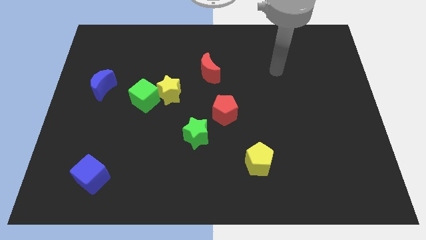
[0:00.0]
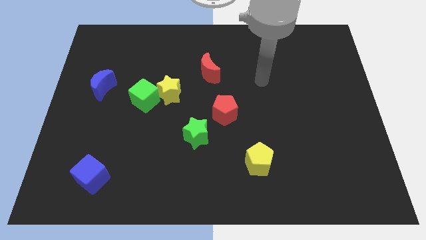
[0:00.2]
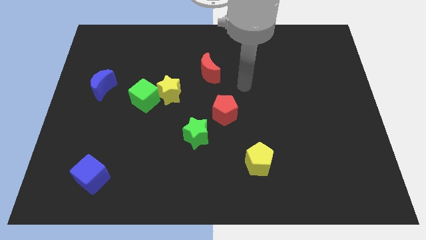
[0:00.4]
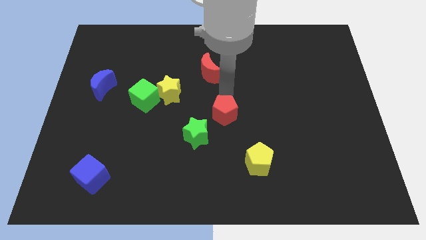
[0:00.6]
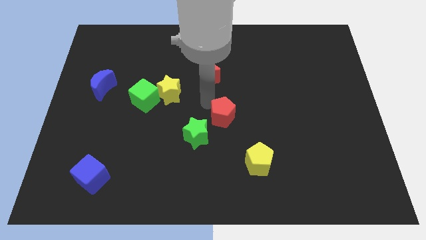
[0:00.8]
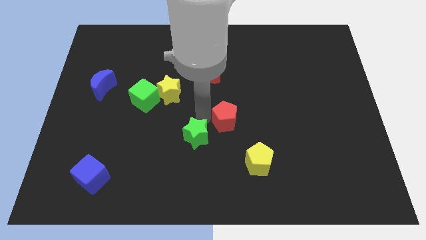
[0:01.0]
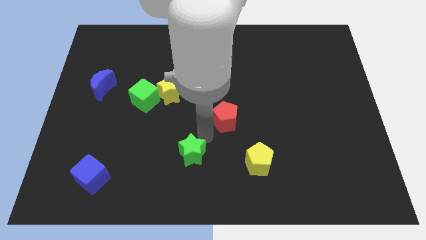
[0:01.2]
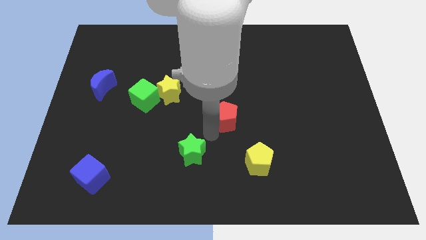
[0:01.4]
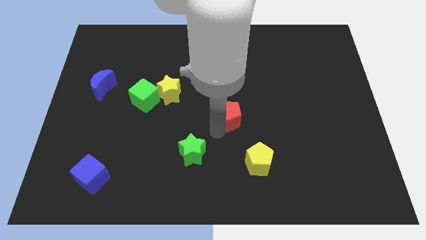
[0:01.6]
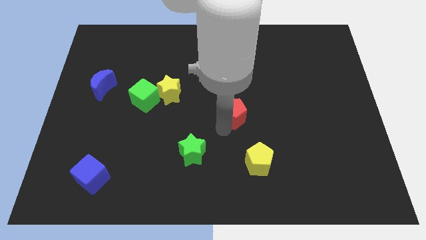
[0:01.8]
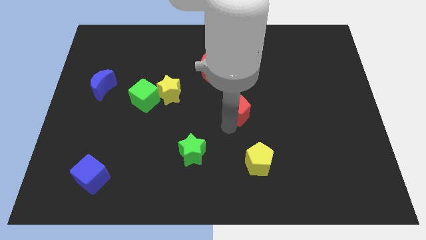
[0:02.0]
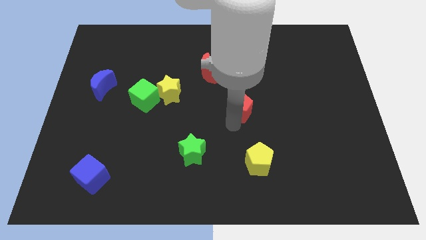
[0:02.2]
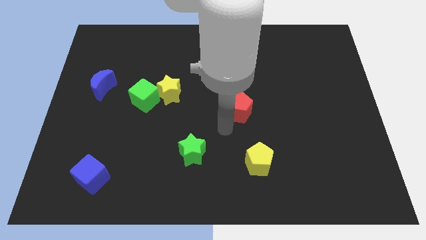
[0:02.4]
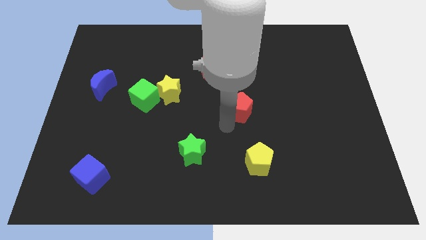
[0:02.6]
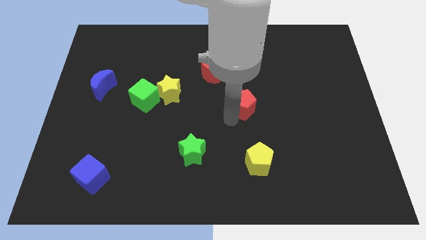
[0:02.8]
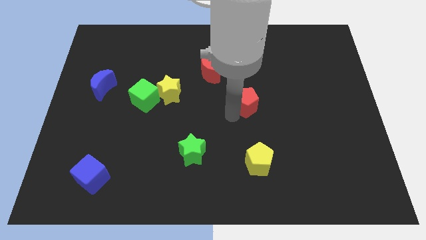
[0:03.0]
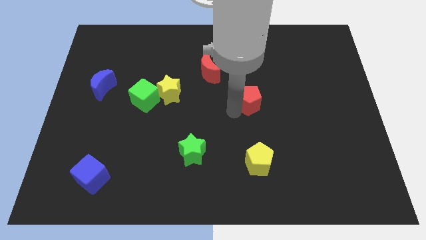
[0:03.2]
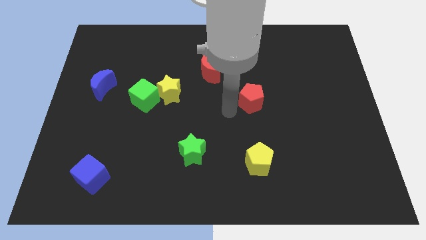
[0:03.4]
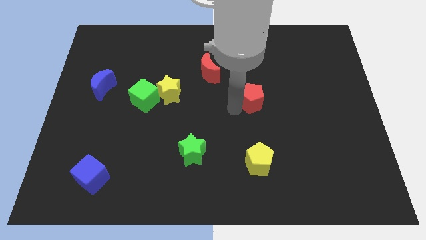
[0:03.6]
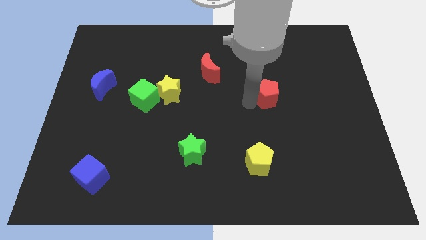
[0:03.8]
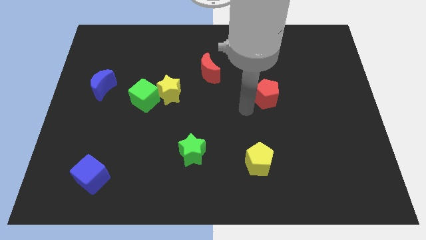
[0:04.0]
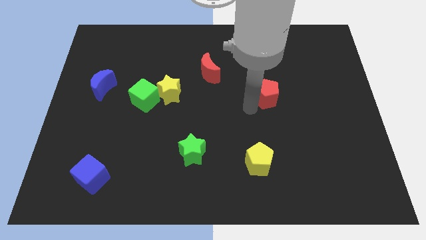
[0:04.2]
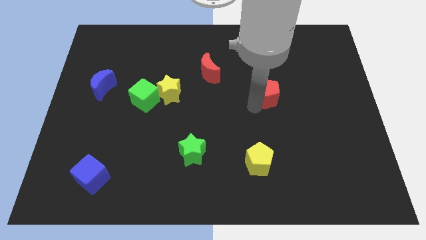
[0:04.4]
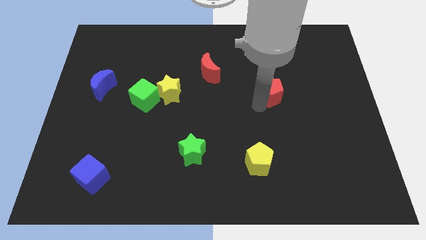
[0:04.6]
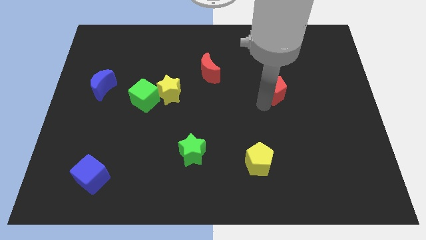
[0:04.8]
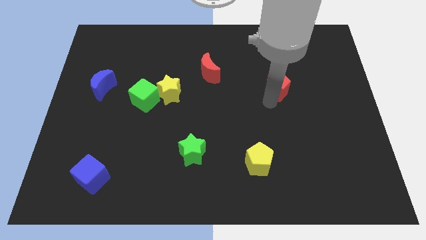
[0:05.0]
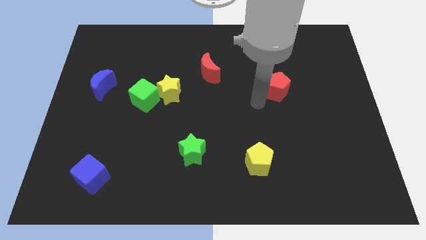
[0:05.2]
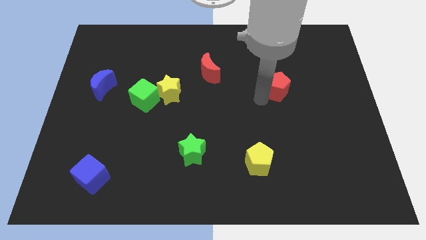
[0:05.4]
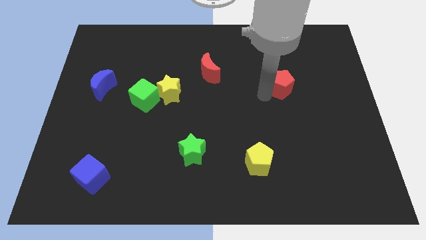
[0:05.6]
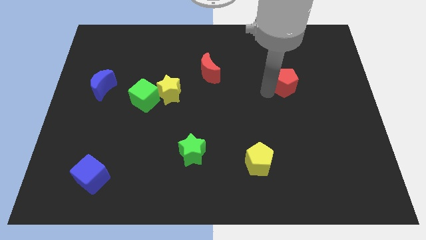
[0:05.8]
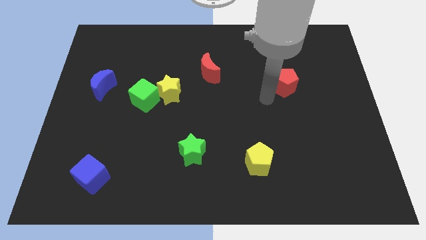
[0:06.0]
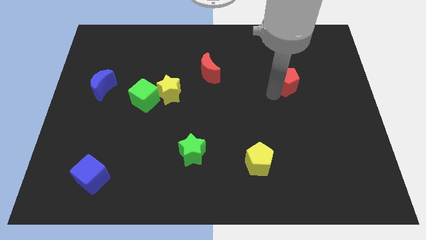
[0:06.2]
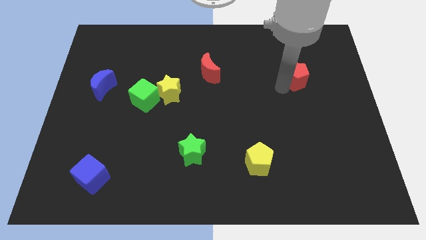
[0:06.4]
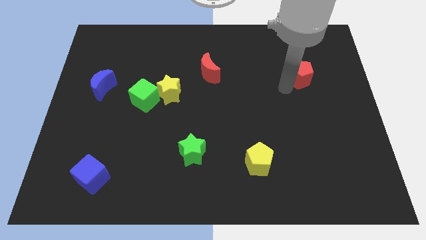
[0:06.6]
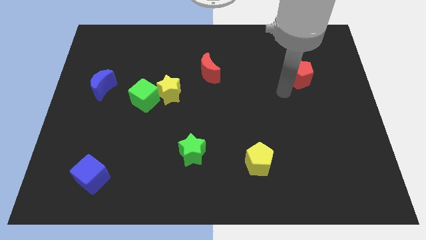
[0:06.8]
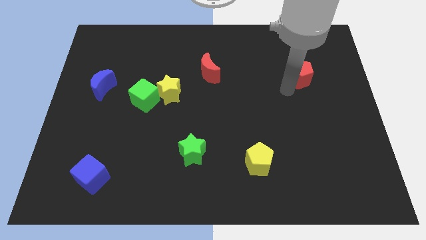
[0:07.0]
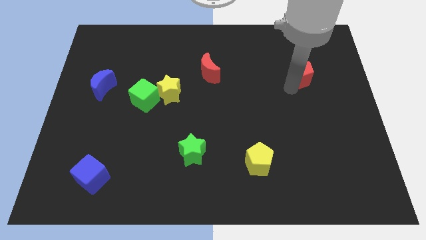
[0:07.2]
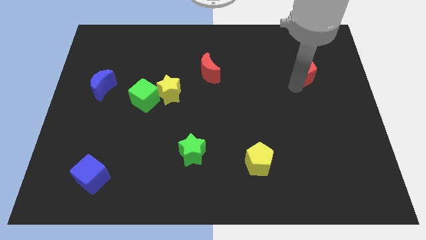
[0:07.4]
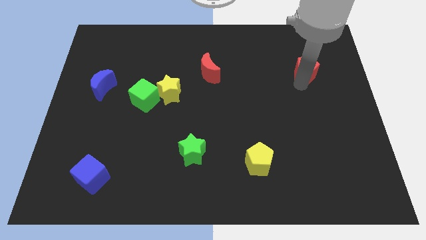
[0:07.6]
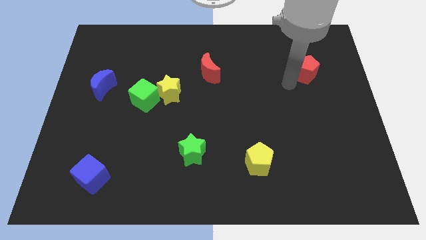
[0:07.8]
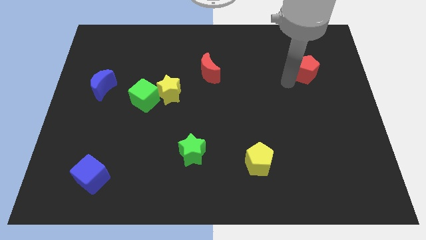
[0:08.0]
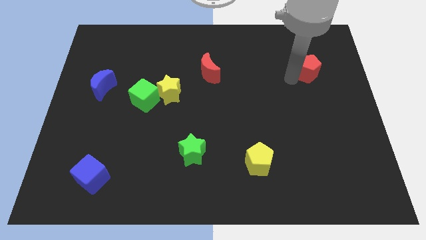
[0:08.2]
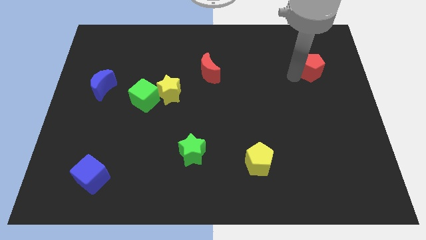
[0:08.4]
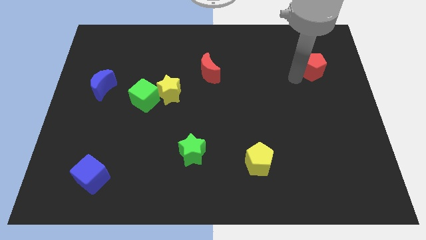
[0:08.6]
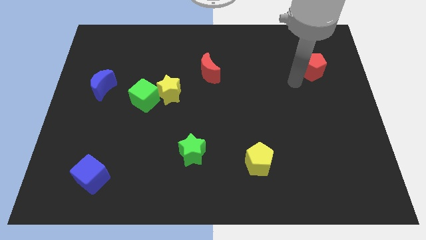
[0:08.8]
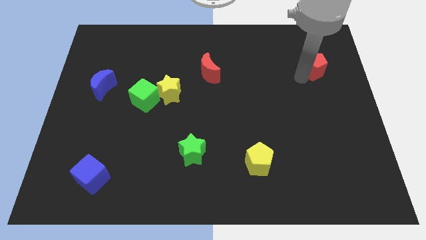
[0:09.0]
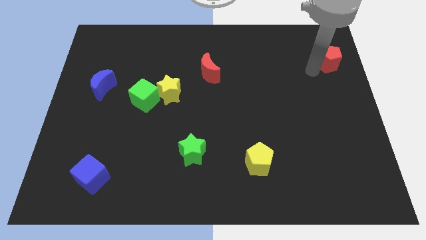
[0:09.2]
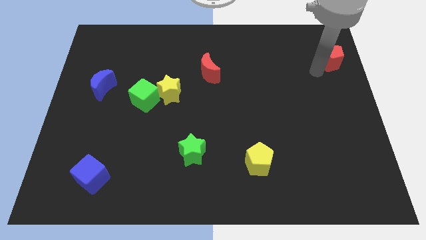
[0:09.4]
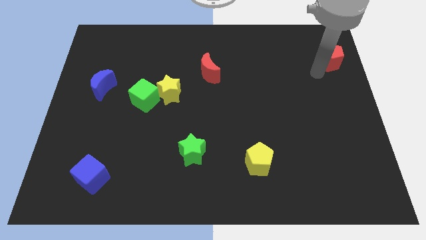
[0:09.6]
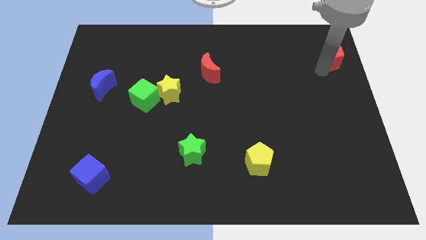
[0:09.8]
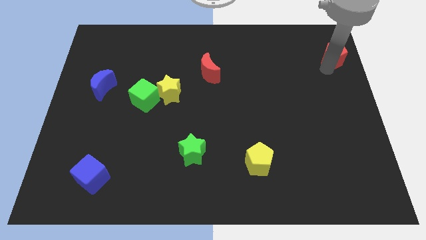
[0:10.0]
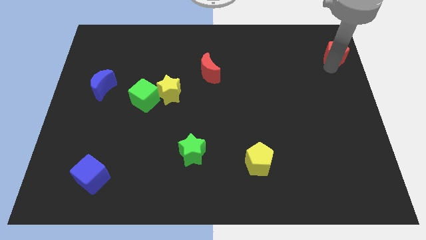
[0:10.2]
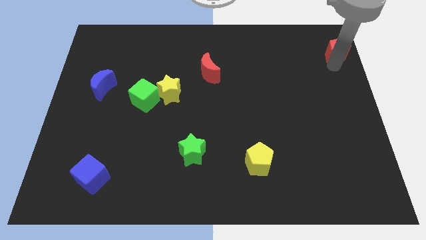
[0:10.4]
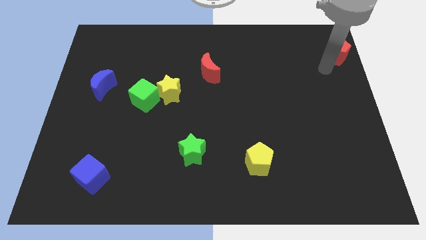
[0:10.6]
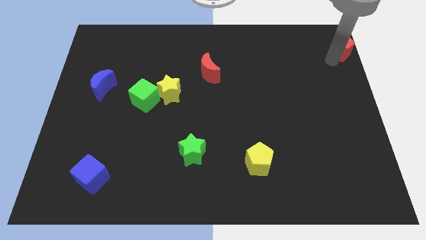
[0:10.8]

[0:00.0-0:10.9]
move the red pentagon to the top right of the board

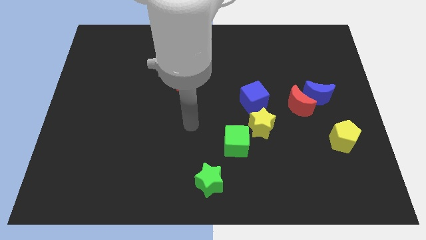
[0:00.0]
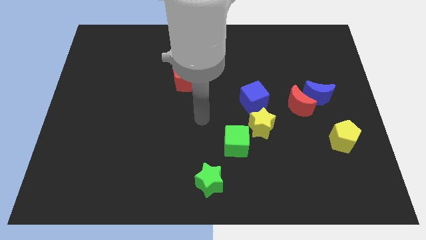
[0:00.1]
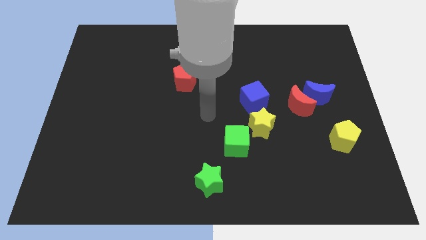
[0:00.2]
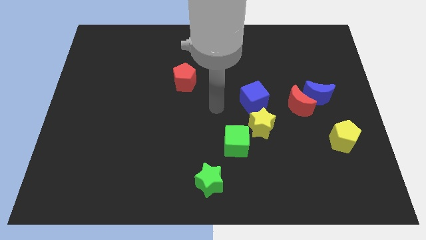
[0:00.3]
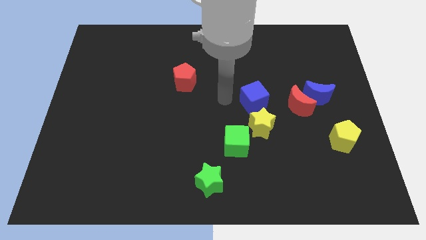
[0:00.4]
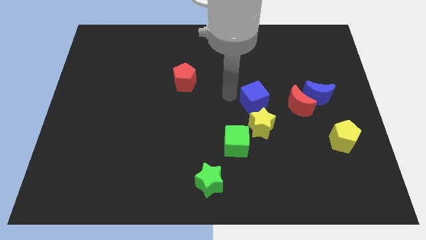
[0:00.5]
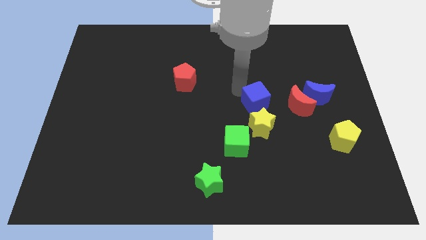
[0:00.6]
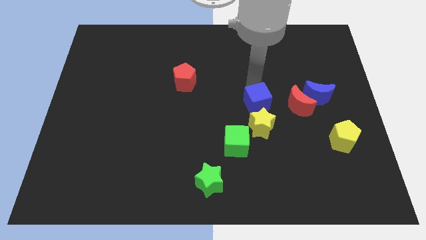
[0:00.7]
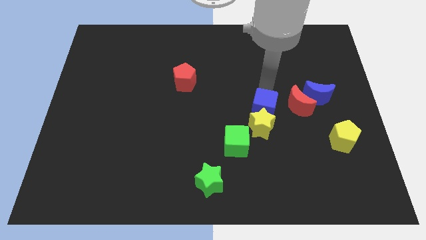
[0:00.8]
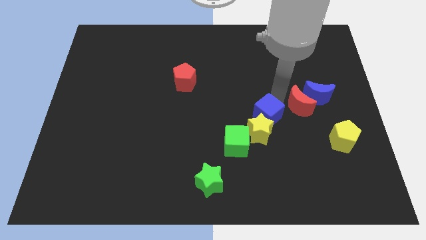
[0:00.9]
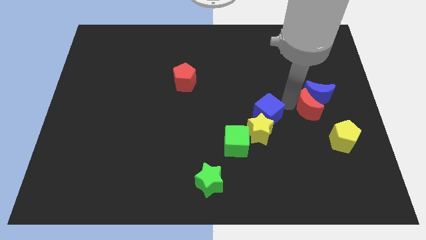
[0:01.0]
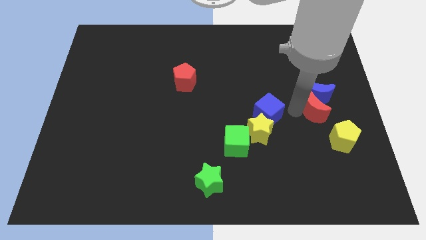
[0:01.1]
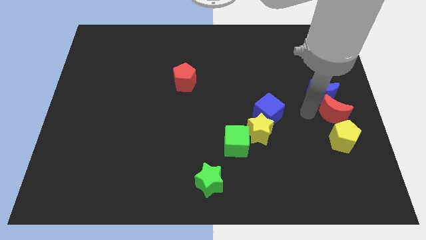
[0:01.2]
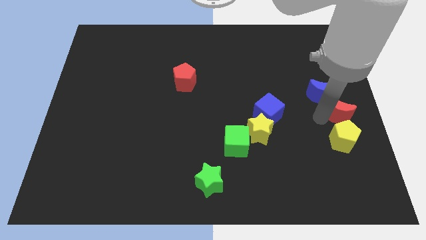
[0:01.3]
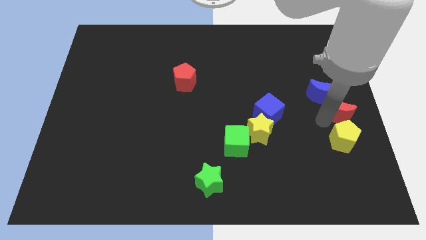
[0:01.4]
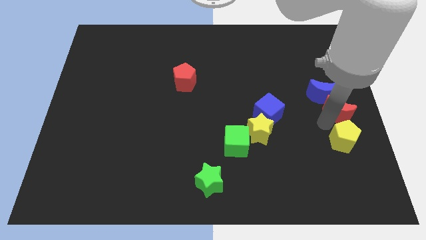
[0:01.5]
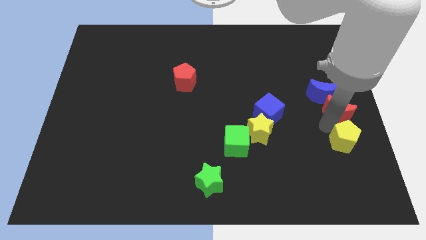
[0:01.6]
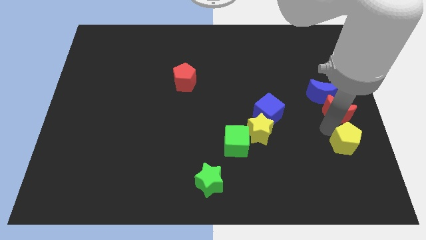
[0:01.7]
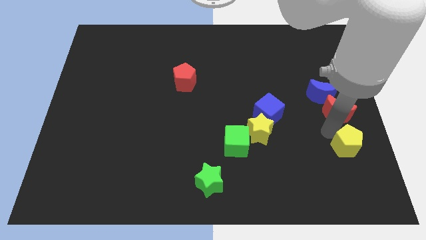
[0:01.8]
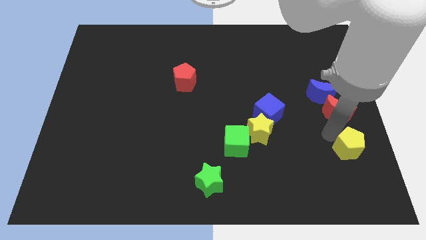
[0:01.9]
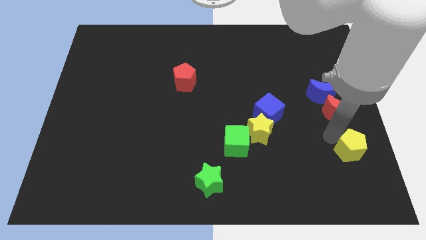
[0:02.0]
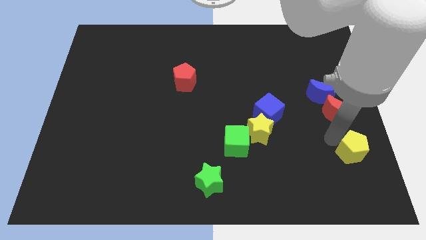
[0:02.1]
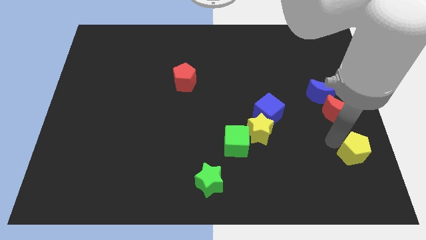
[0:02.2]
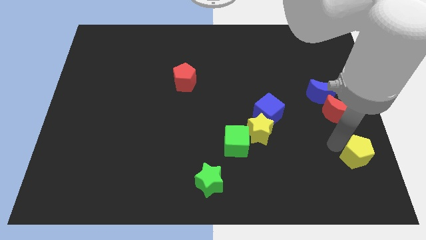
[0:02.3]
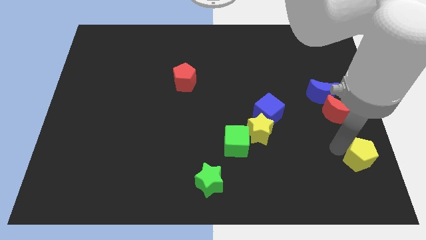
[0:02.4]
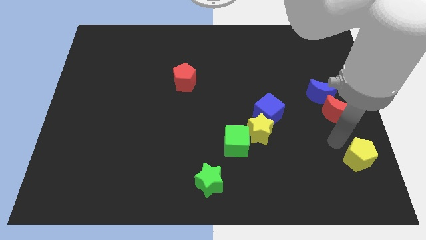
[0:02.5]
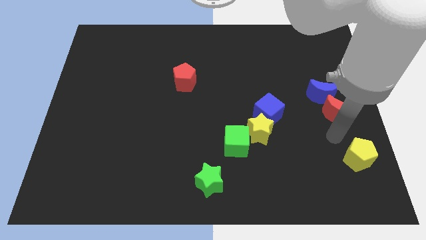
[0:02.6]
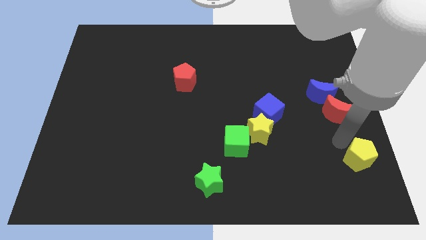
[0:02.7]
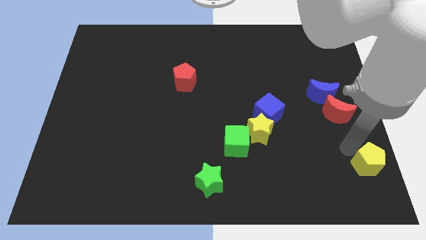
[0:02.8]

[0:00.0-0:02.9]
push the yellow pentagon to the bottom right of the board
